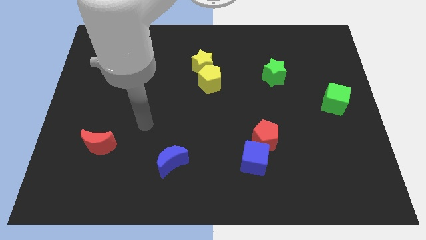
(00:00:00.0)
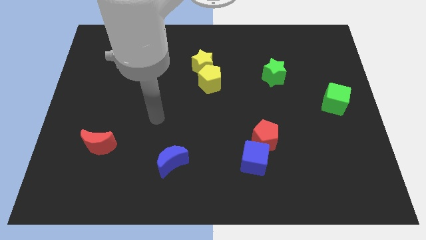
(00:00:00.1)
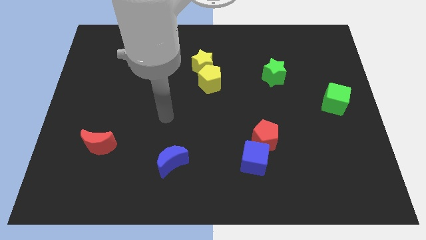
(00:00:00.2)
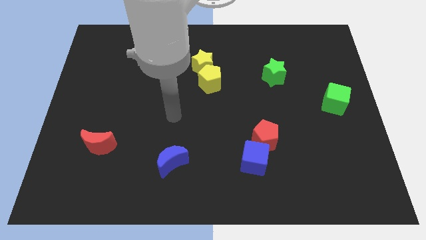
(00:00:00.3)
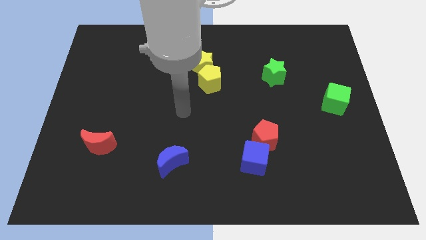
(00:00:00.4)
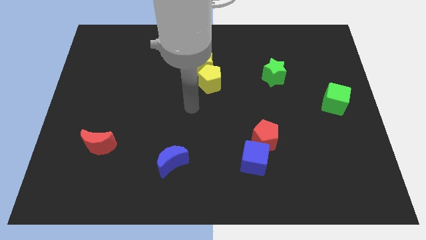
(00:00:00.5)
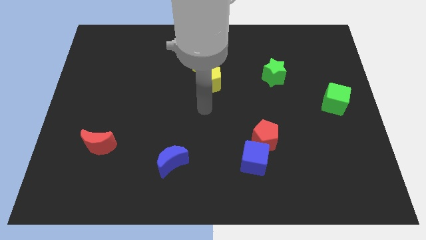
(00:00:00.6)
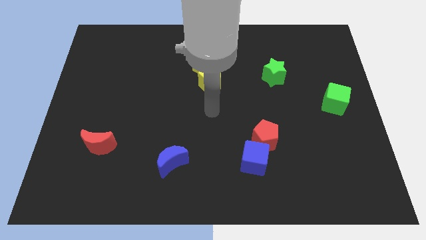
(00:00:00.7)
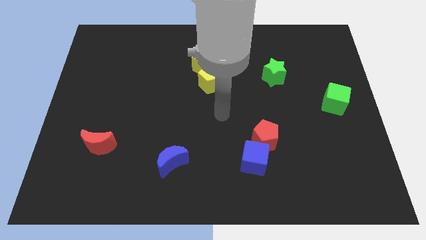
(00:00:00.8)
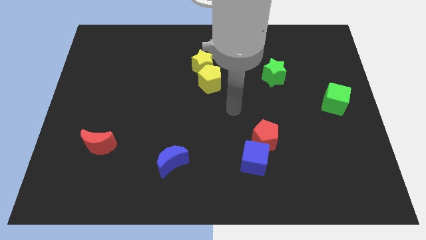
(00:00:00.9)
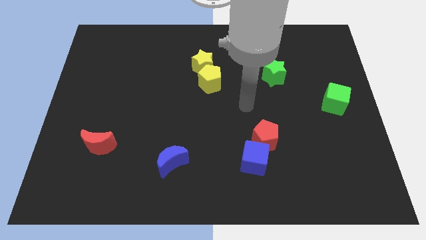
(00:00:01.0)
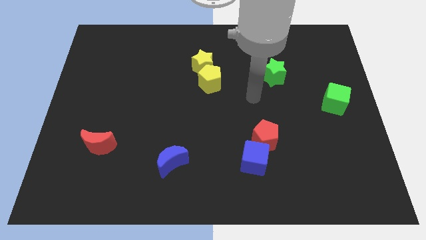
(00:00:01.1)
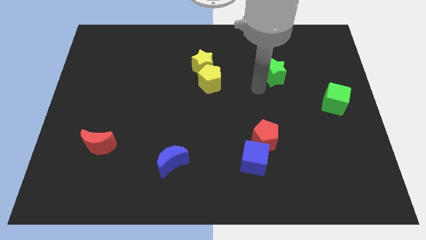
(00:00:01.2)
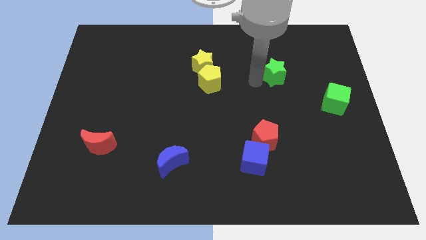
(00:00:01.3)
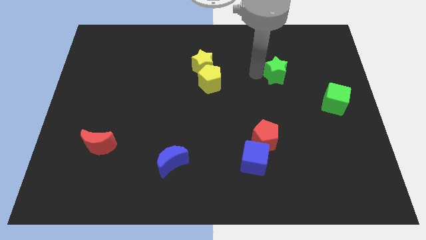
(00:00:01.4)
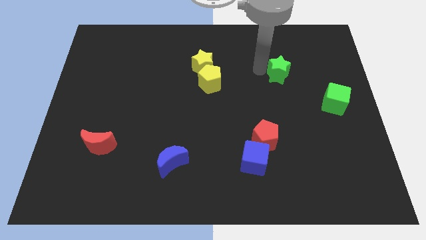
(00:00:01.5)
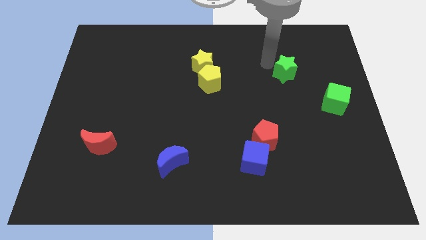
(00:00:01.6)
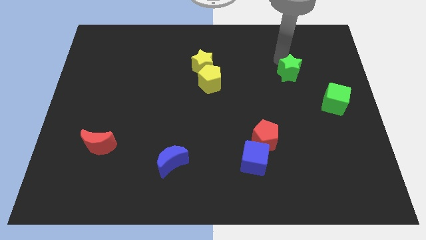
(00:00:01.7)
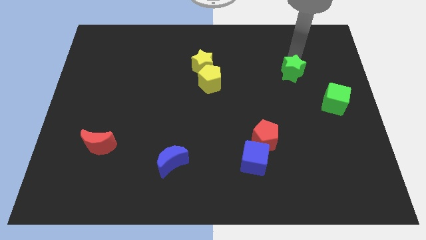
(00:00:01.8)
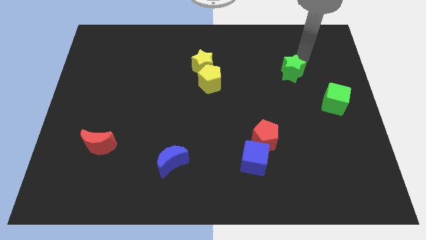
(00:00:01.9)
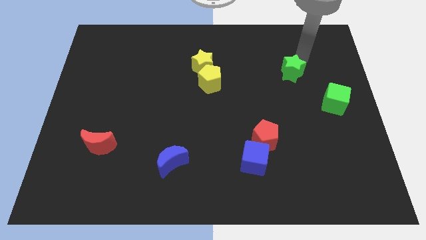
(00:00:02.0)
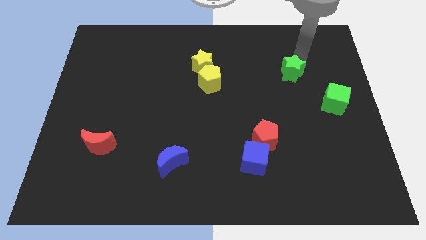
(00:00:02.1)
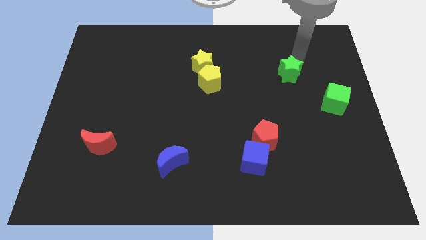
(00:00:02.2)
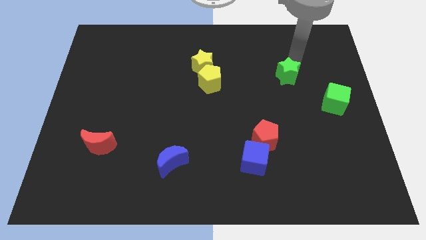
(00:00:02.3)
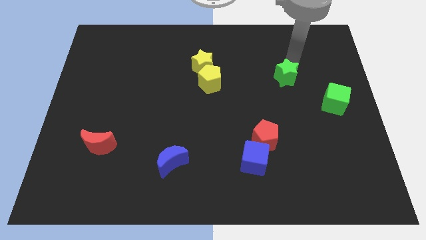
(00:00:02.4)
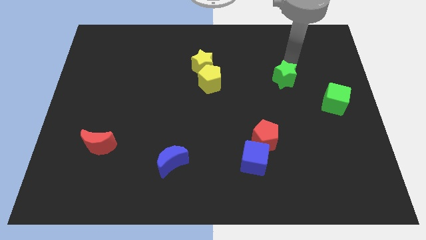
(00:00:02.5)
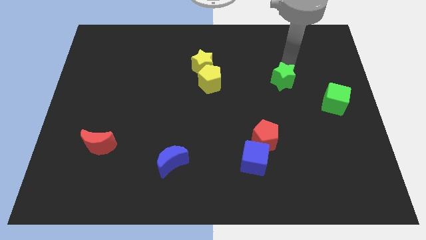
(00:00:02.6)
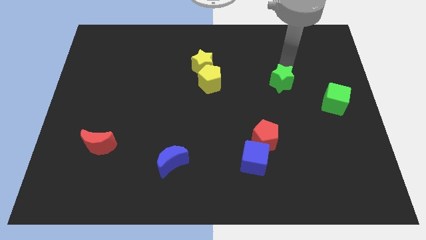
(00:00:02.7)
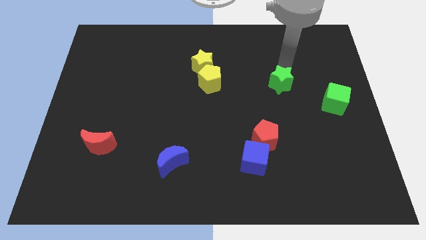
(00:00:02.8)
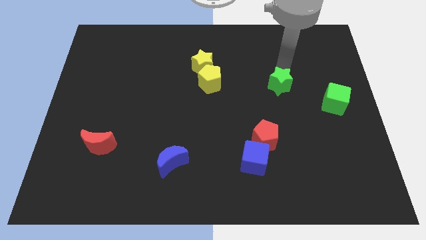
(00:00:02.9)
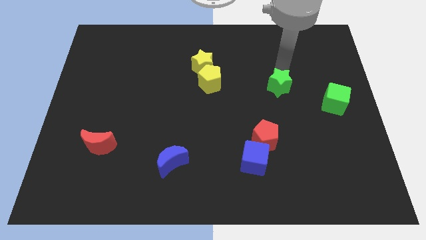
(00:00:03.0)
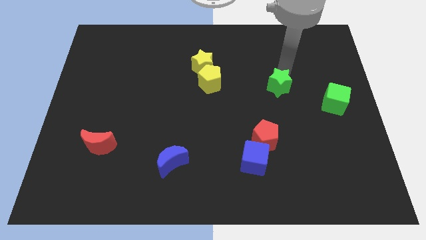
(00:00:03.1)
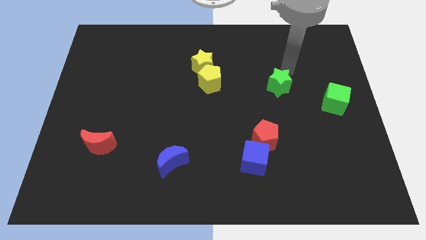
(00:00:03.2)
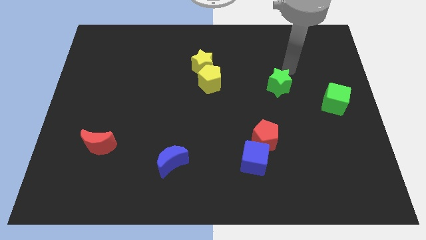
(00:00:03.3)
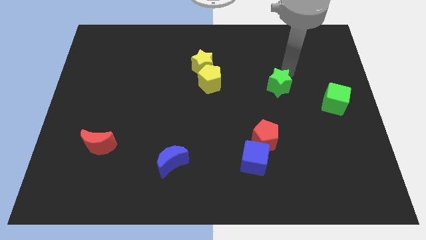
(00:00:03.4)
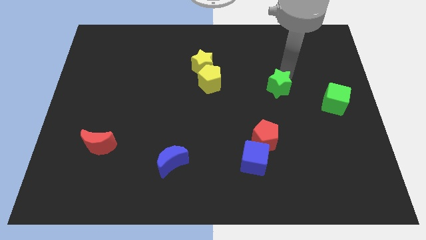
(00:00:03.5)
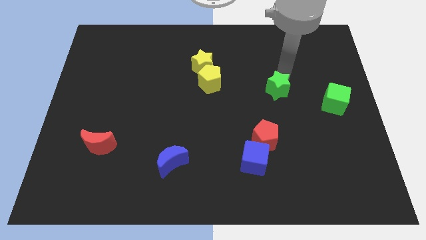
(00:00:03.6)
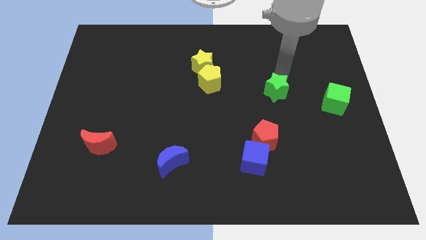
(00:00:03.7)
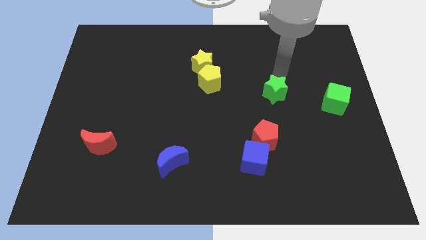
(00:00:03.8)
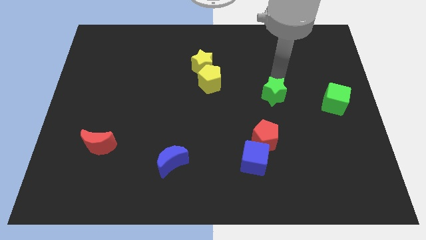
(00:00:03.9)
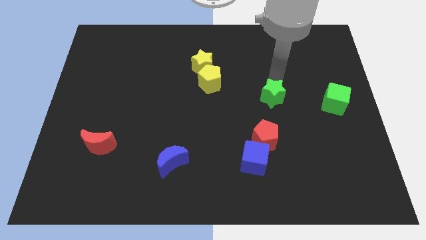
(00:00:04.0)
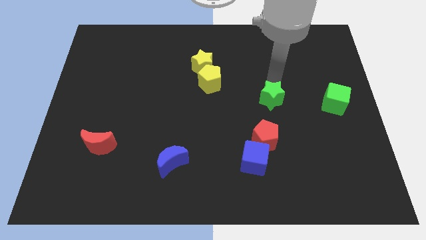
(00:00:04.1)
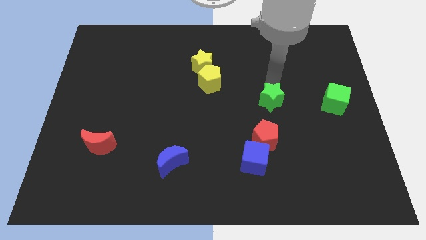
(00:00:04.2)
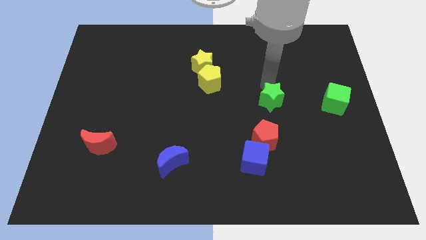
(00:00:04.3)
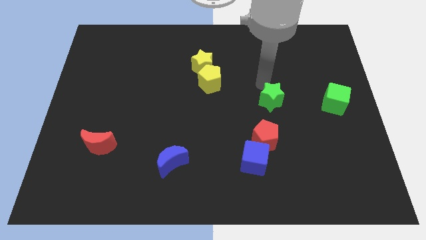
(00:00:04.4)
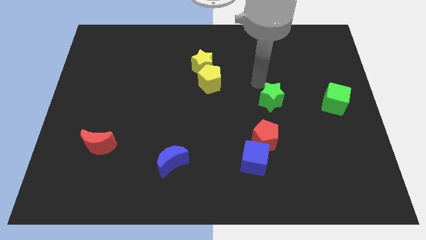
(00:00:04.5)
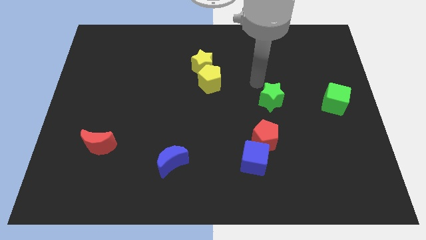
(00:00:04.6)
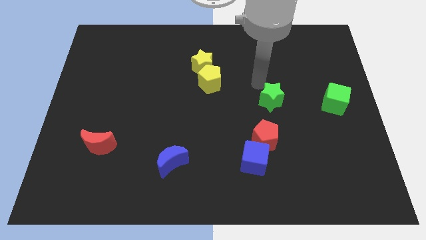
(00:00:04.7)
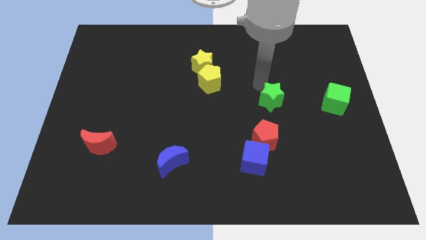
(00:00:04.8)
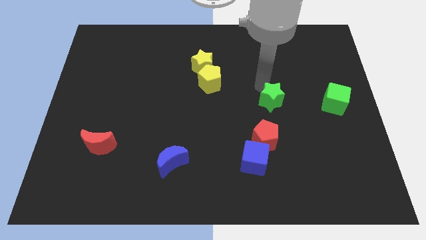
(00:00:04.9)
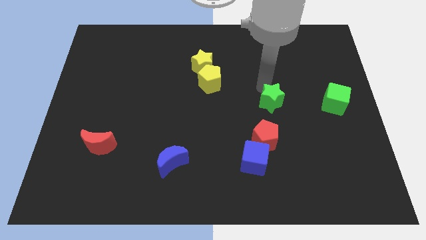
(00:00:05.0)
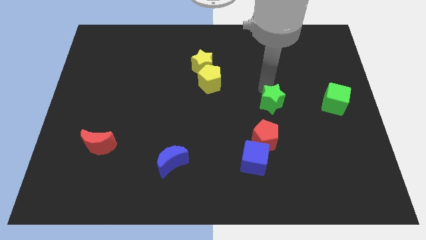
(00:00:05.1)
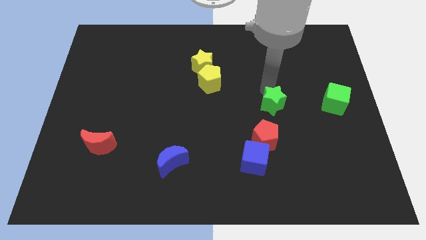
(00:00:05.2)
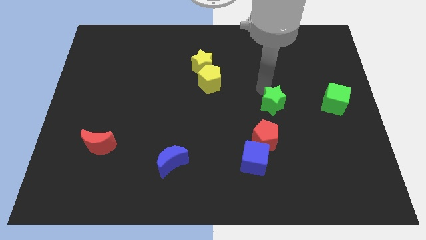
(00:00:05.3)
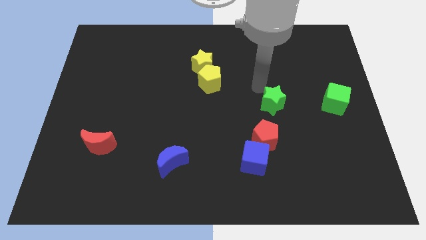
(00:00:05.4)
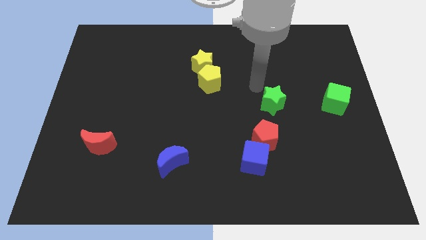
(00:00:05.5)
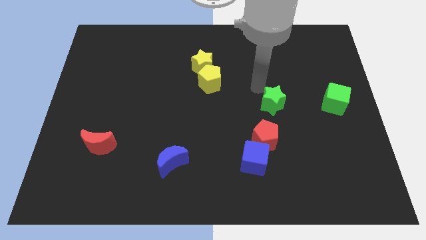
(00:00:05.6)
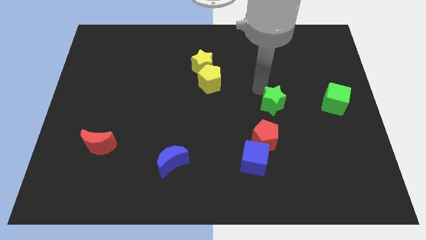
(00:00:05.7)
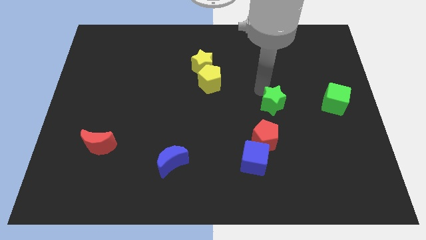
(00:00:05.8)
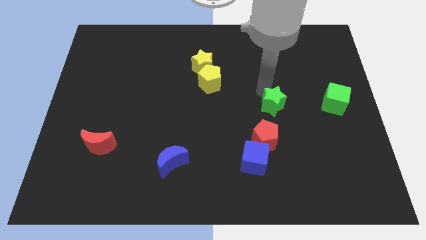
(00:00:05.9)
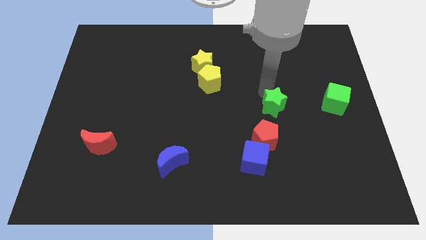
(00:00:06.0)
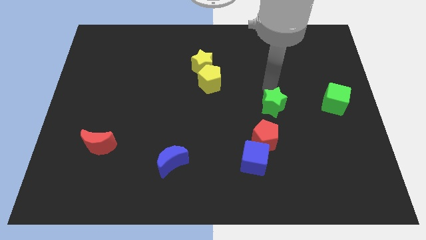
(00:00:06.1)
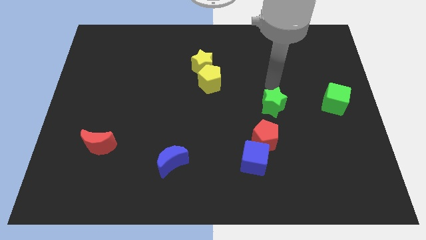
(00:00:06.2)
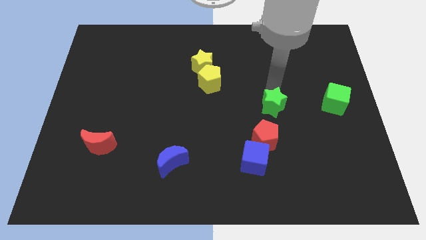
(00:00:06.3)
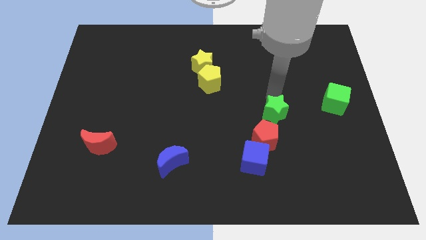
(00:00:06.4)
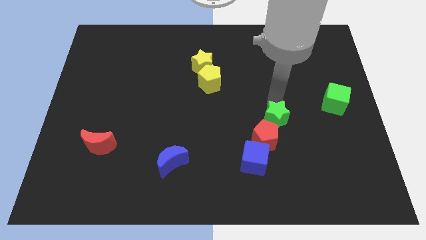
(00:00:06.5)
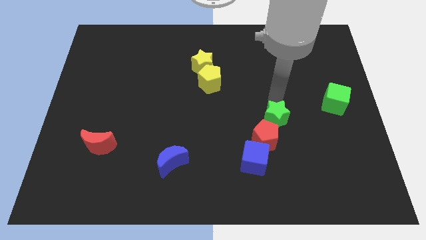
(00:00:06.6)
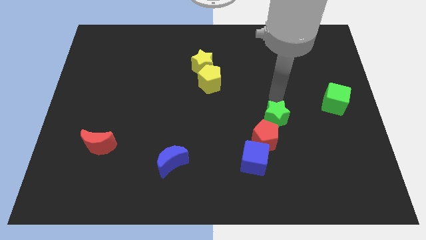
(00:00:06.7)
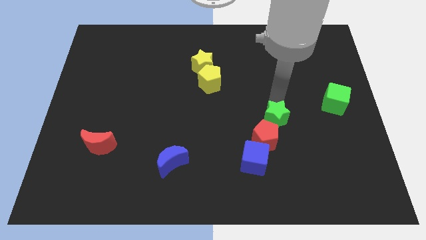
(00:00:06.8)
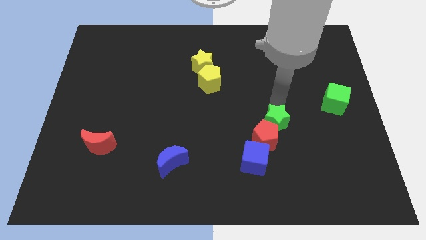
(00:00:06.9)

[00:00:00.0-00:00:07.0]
slide the green star to the top right side of the blue cube
